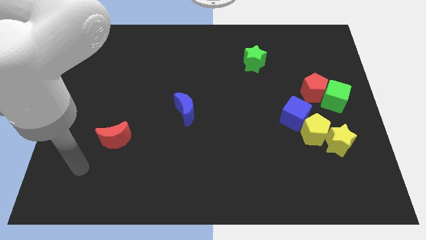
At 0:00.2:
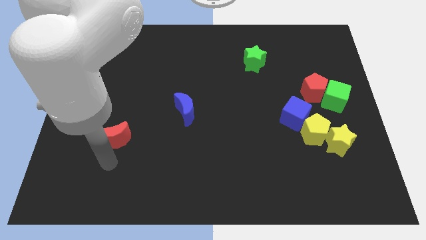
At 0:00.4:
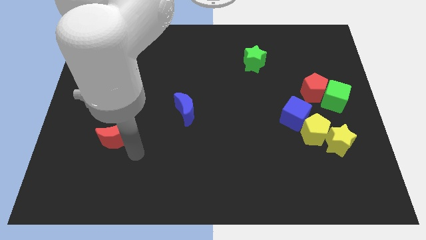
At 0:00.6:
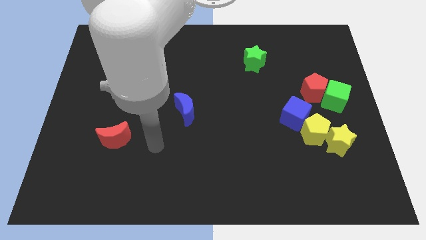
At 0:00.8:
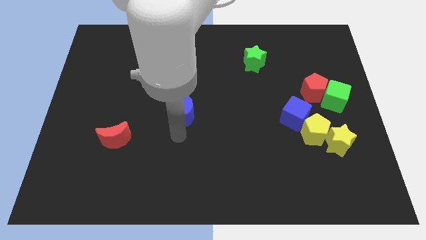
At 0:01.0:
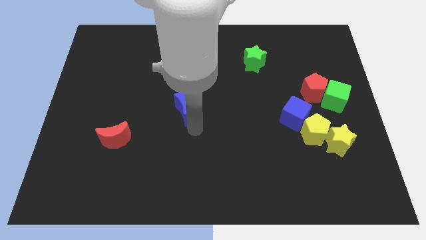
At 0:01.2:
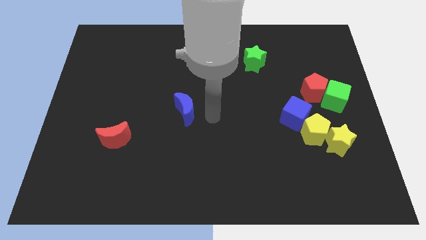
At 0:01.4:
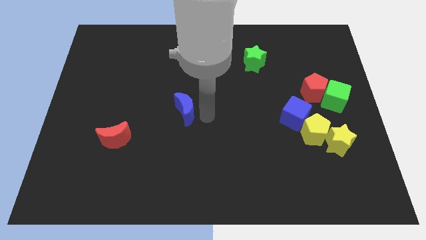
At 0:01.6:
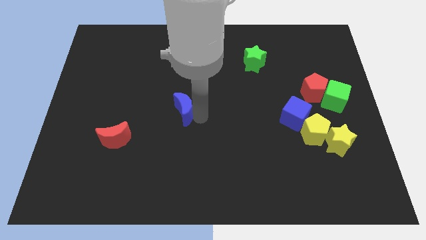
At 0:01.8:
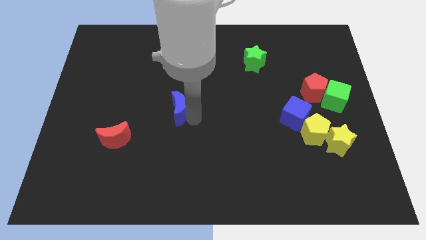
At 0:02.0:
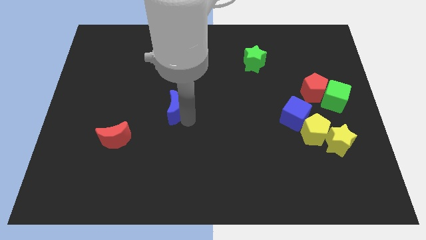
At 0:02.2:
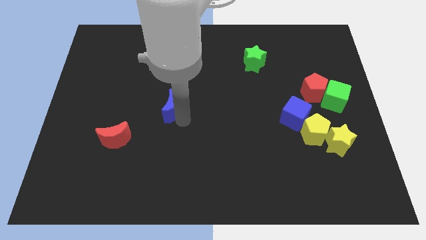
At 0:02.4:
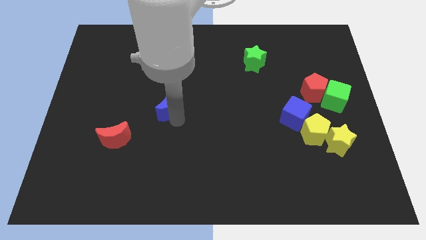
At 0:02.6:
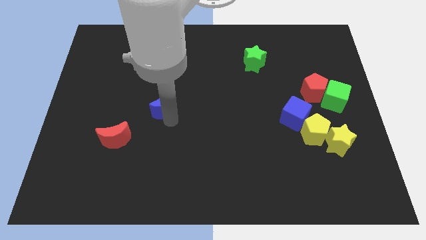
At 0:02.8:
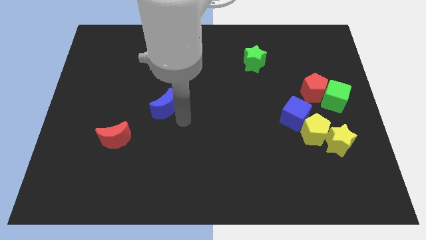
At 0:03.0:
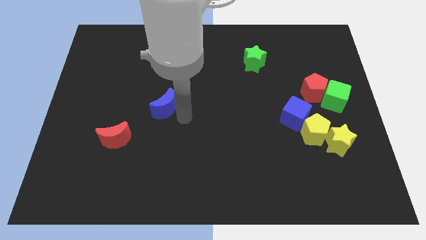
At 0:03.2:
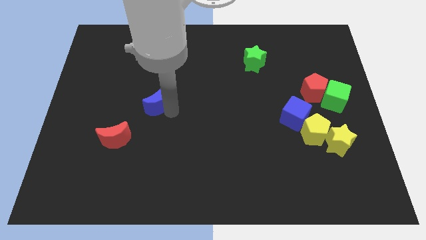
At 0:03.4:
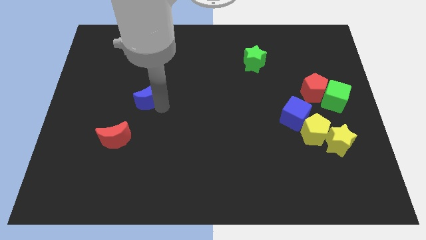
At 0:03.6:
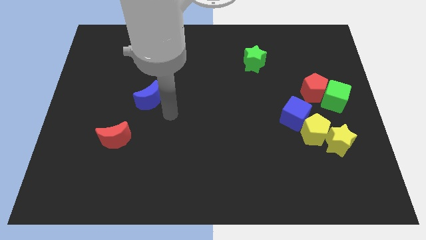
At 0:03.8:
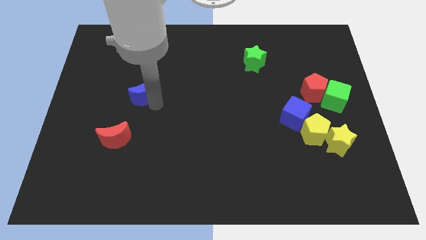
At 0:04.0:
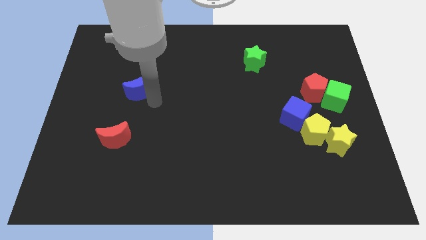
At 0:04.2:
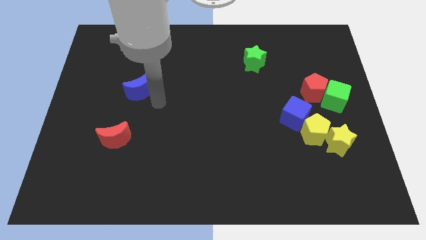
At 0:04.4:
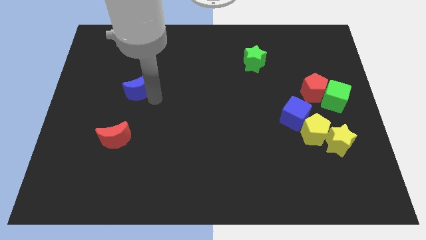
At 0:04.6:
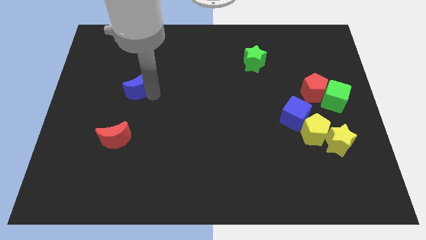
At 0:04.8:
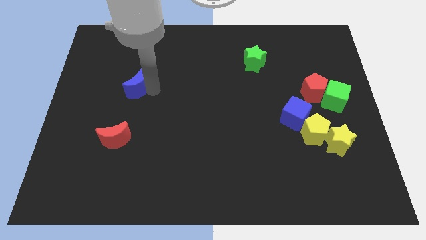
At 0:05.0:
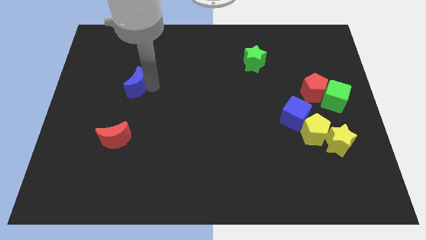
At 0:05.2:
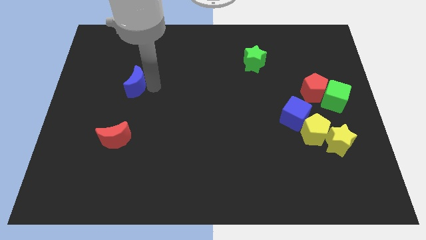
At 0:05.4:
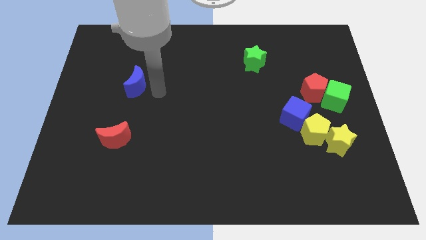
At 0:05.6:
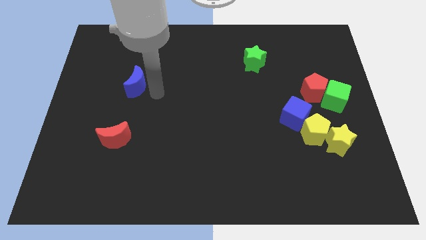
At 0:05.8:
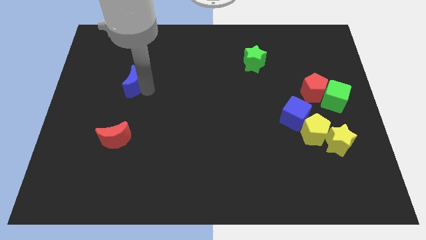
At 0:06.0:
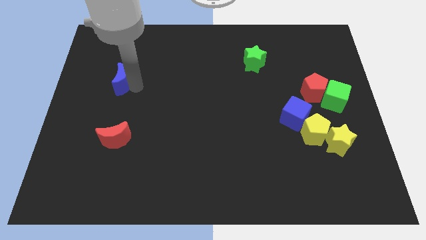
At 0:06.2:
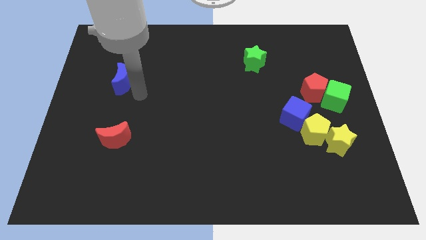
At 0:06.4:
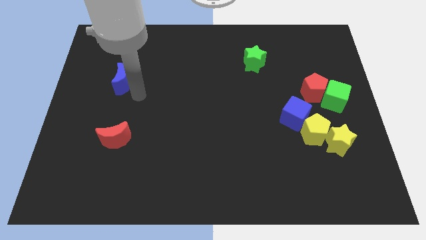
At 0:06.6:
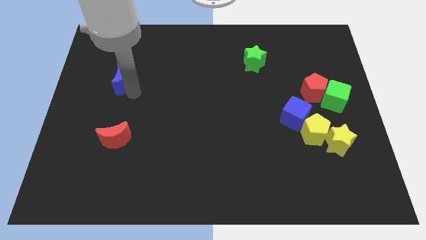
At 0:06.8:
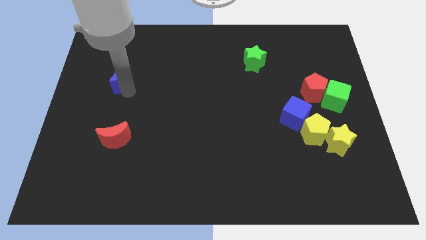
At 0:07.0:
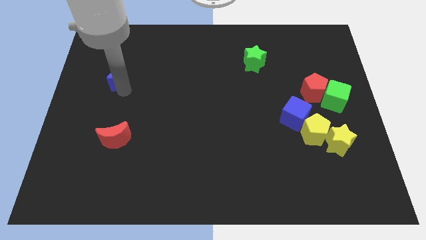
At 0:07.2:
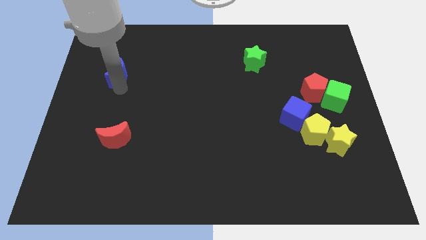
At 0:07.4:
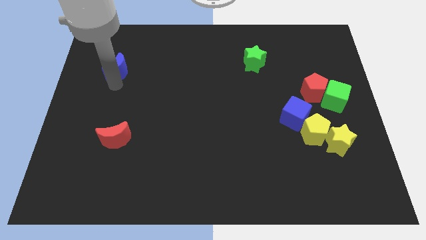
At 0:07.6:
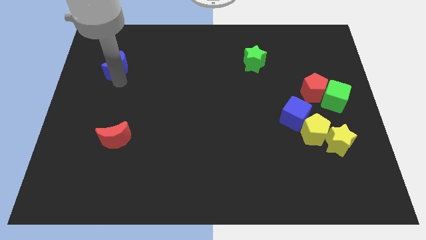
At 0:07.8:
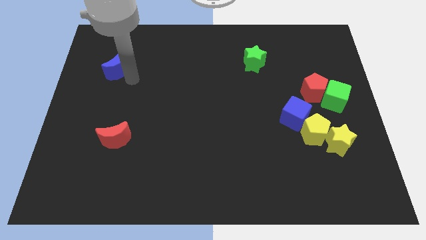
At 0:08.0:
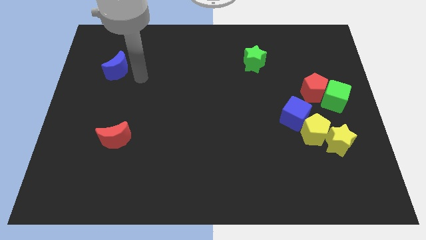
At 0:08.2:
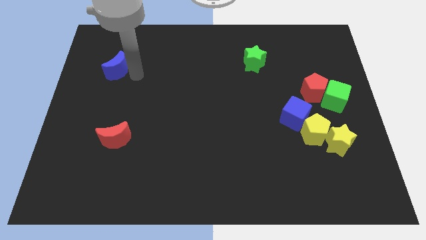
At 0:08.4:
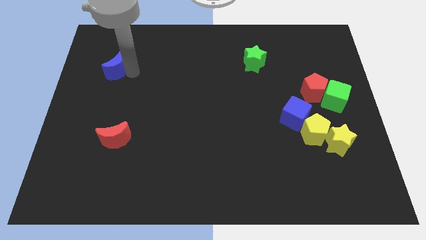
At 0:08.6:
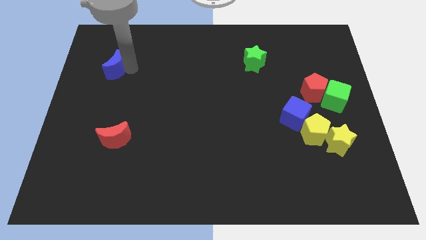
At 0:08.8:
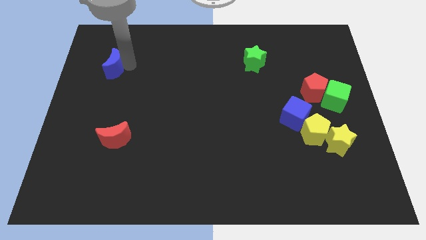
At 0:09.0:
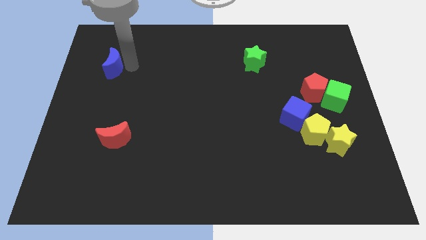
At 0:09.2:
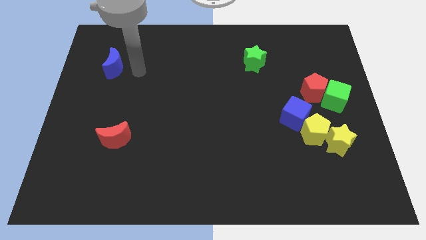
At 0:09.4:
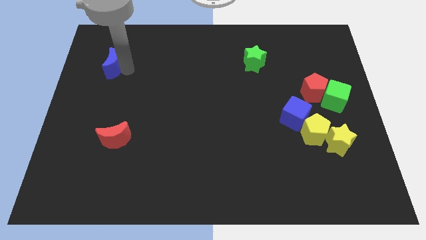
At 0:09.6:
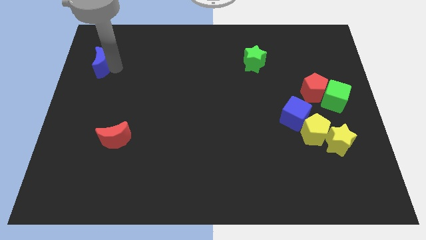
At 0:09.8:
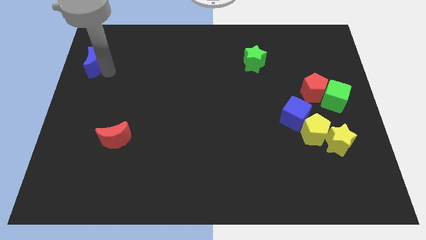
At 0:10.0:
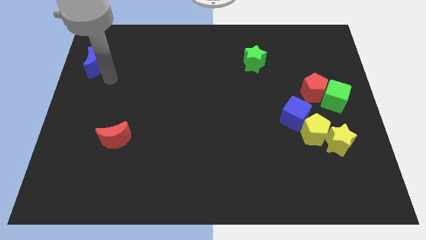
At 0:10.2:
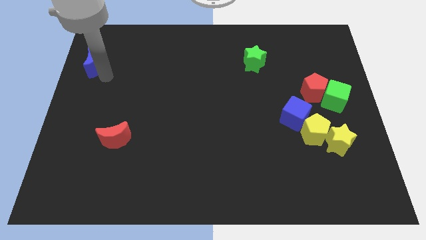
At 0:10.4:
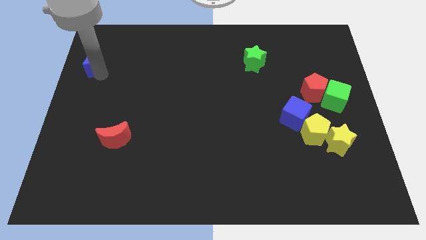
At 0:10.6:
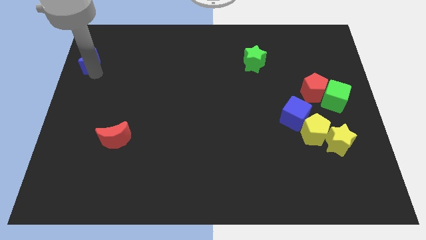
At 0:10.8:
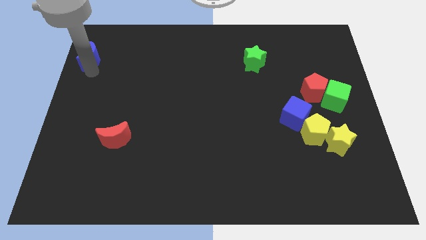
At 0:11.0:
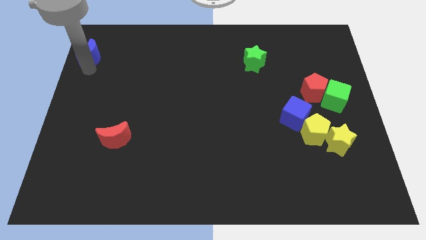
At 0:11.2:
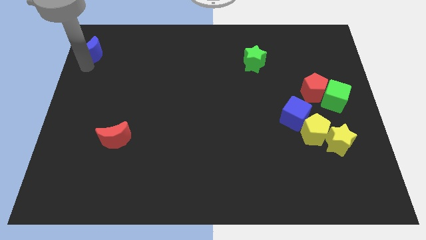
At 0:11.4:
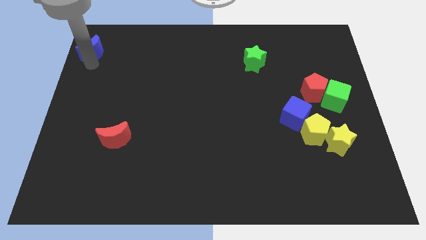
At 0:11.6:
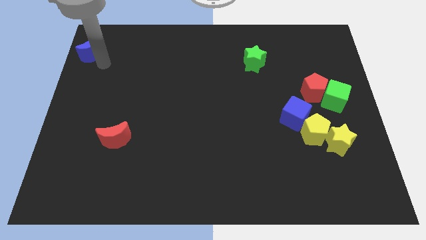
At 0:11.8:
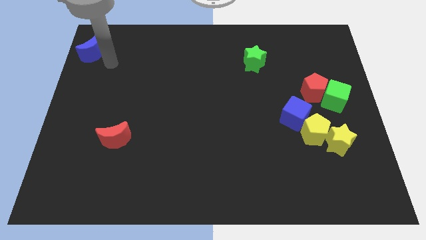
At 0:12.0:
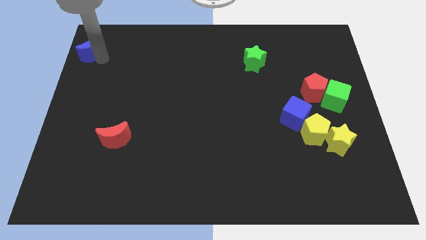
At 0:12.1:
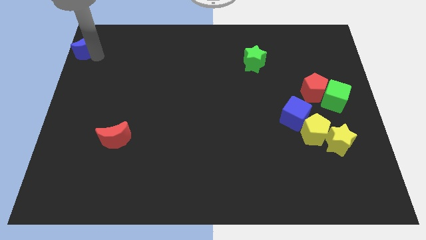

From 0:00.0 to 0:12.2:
move the blue moon to the top left of the board

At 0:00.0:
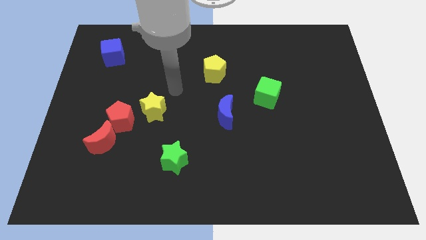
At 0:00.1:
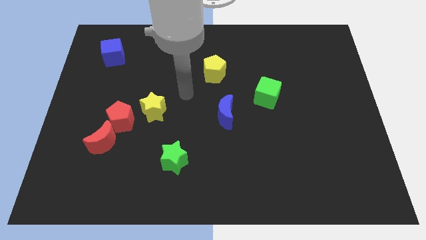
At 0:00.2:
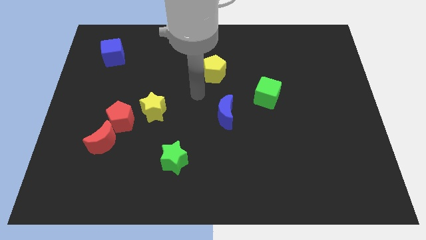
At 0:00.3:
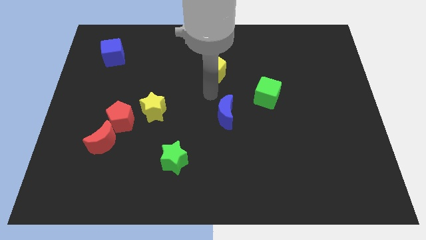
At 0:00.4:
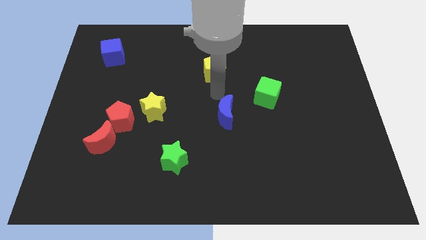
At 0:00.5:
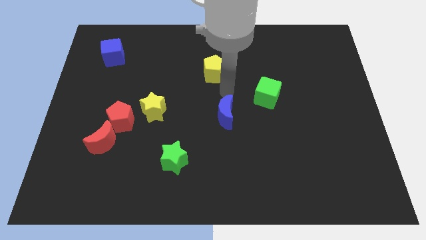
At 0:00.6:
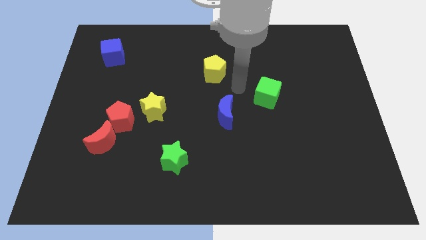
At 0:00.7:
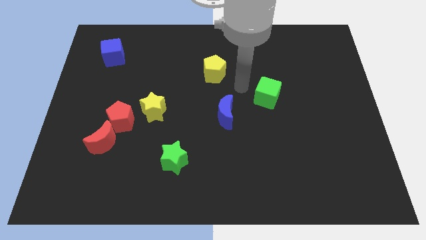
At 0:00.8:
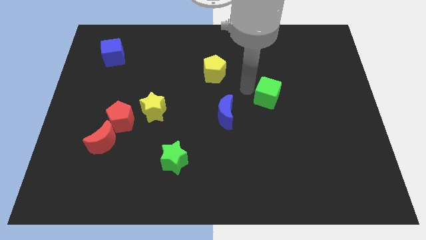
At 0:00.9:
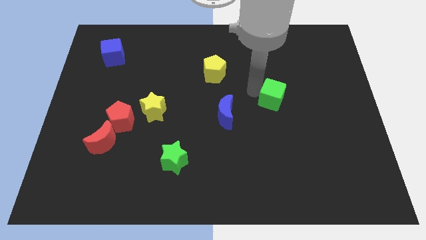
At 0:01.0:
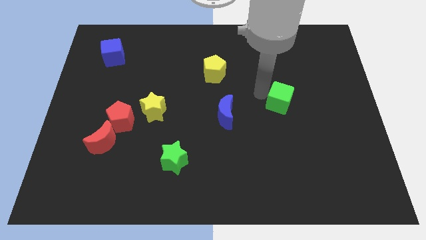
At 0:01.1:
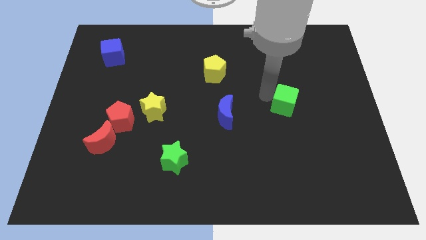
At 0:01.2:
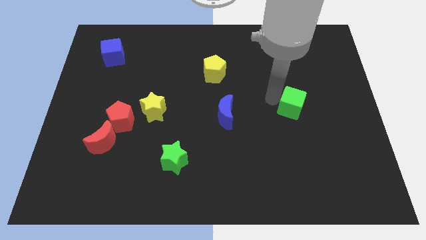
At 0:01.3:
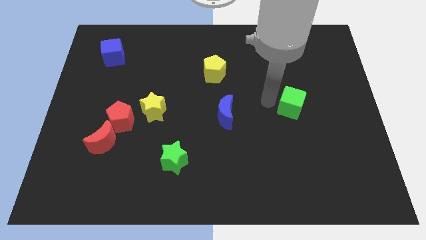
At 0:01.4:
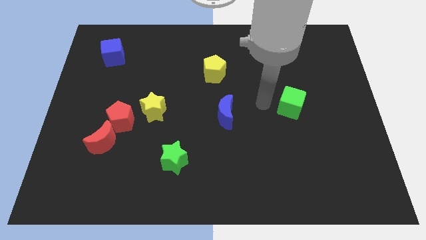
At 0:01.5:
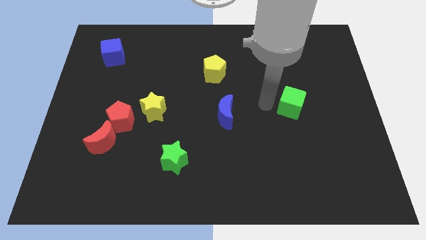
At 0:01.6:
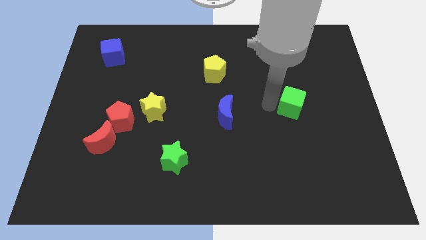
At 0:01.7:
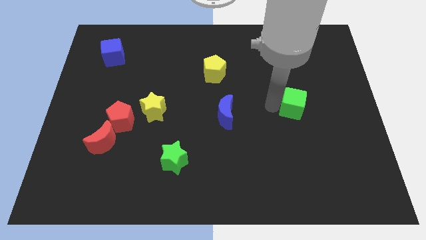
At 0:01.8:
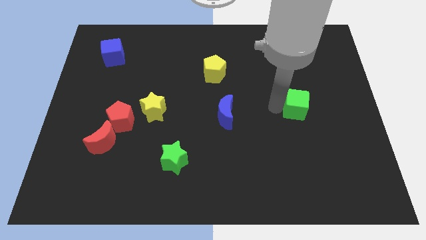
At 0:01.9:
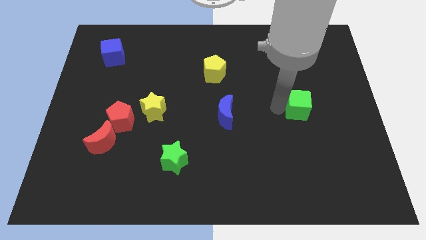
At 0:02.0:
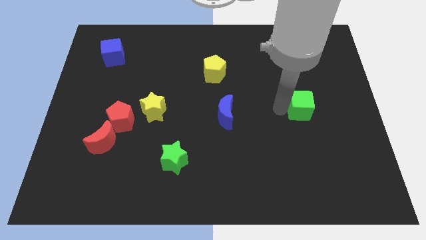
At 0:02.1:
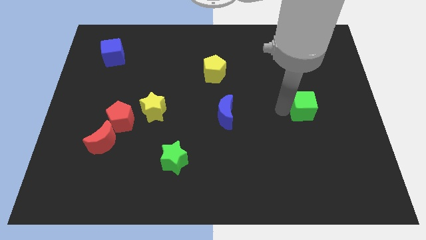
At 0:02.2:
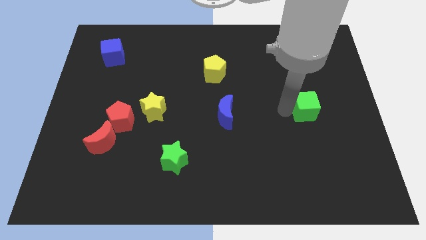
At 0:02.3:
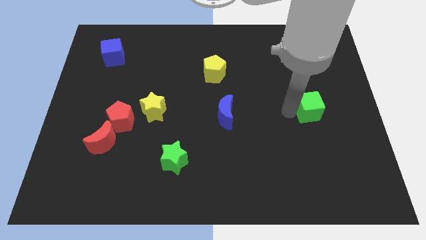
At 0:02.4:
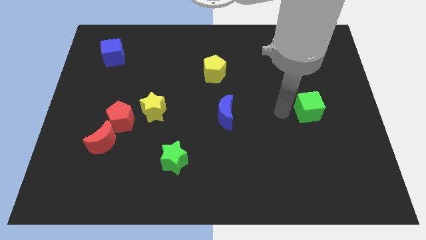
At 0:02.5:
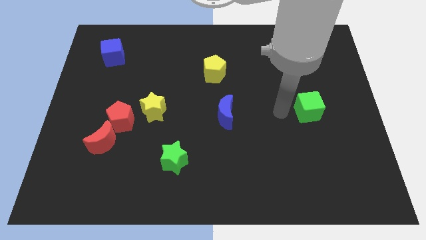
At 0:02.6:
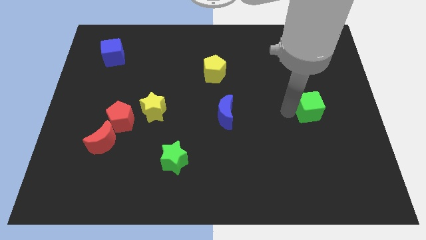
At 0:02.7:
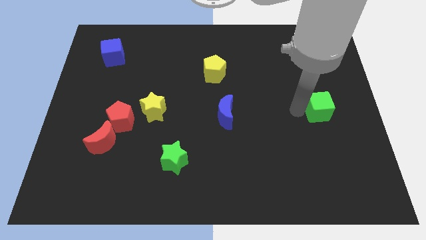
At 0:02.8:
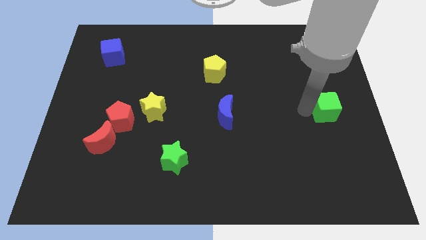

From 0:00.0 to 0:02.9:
slide the green cube to the right side
